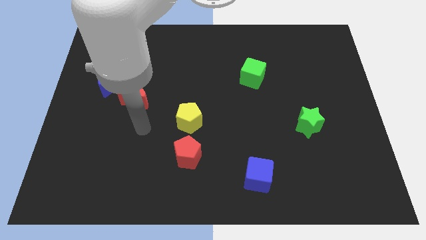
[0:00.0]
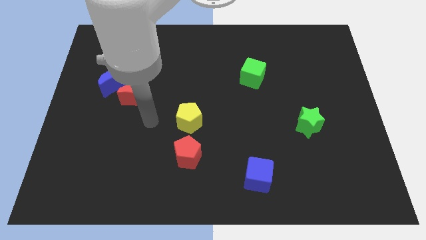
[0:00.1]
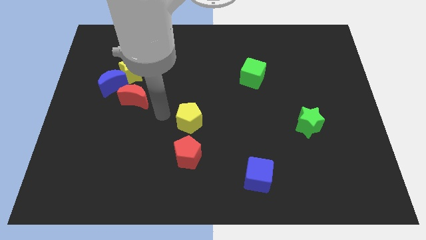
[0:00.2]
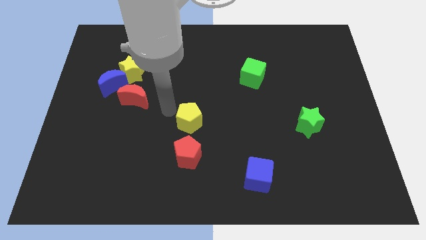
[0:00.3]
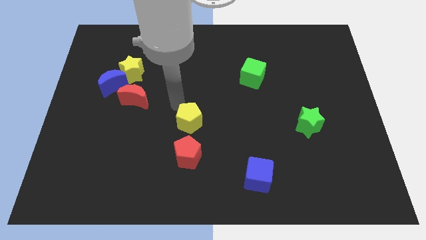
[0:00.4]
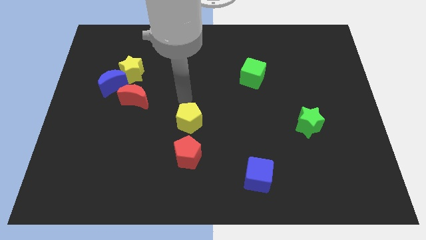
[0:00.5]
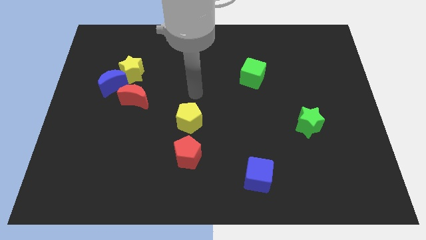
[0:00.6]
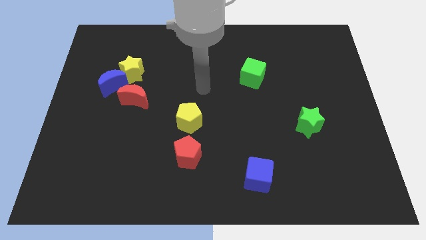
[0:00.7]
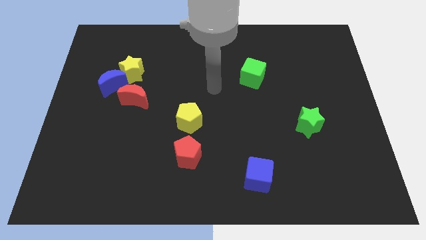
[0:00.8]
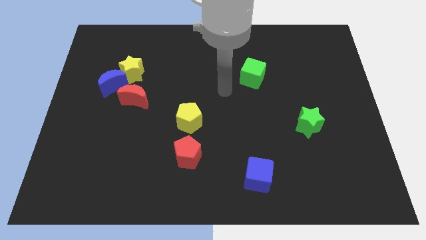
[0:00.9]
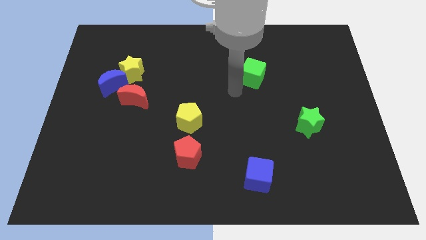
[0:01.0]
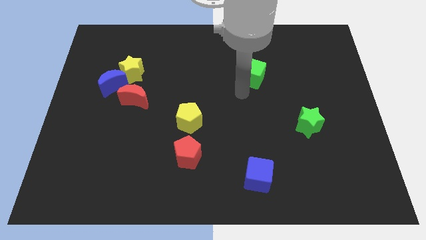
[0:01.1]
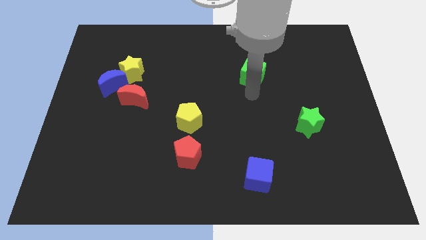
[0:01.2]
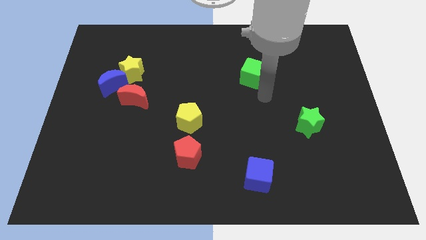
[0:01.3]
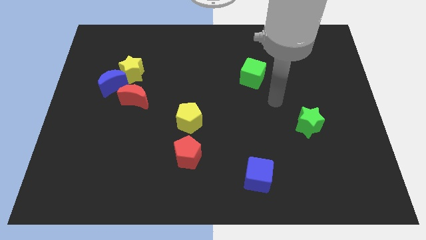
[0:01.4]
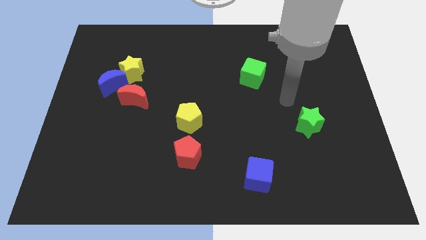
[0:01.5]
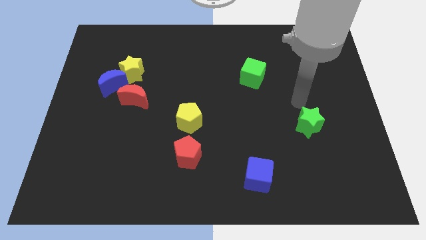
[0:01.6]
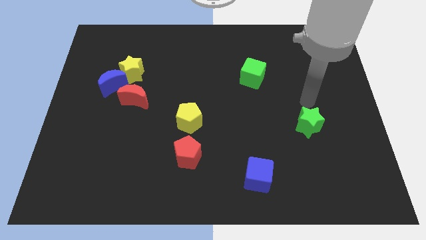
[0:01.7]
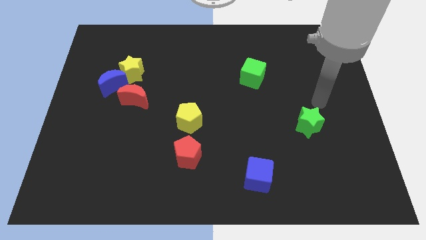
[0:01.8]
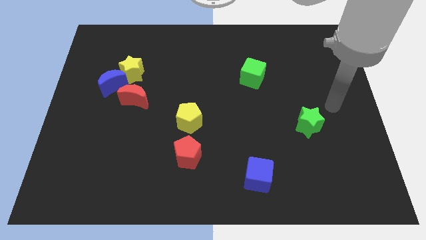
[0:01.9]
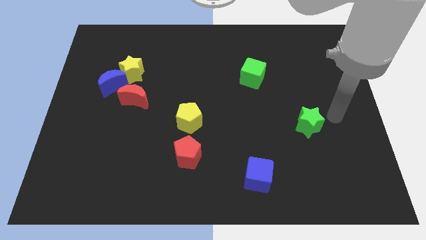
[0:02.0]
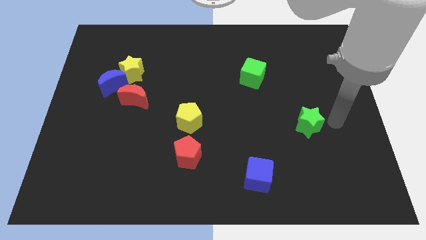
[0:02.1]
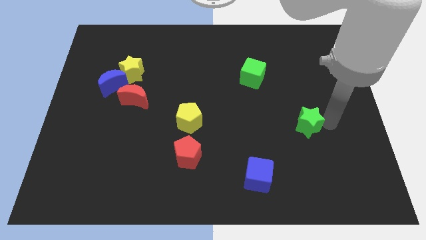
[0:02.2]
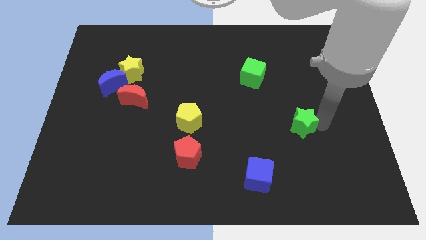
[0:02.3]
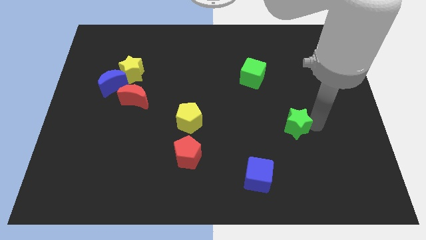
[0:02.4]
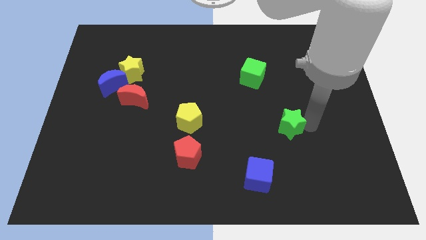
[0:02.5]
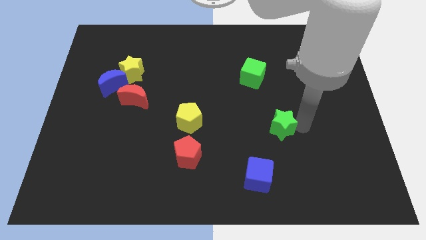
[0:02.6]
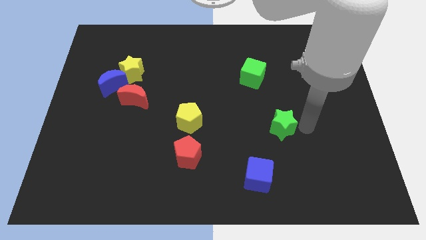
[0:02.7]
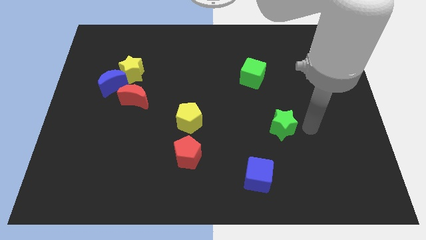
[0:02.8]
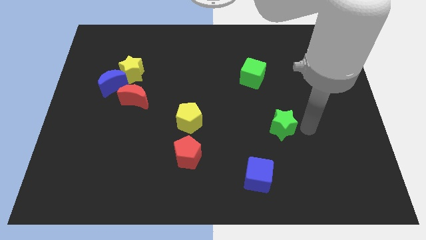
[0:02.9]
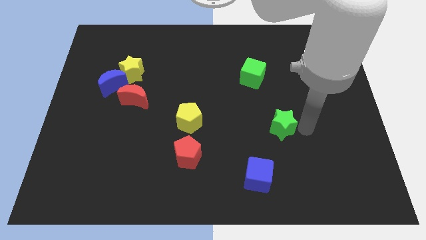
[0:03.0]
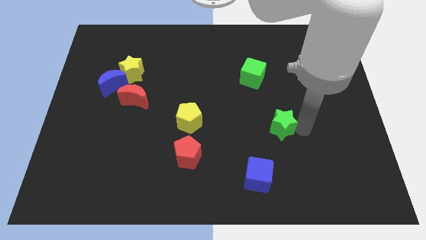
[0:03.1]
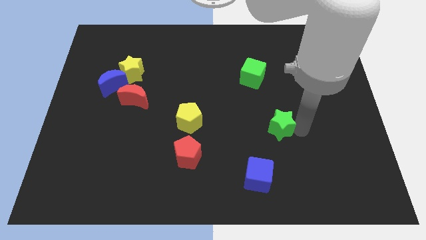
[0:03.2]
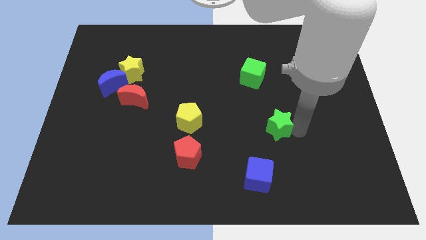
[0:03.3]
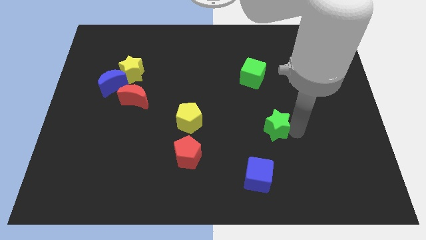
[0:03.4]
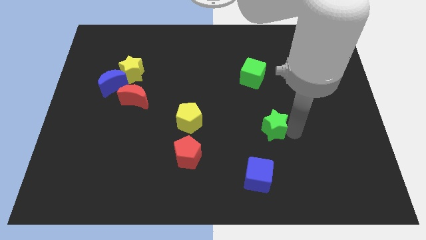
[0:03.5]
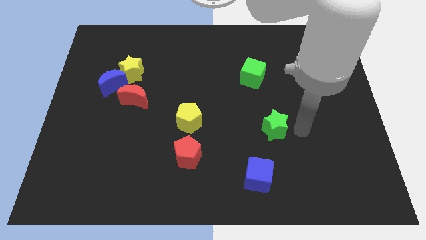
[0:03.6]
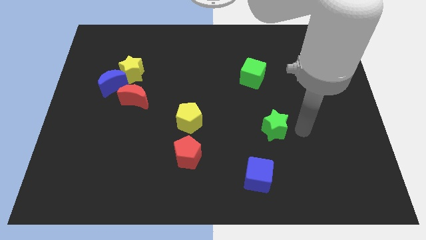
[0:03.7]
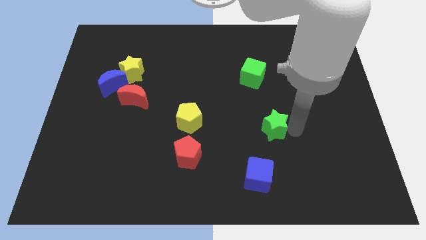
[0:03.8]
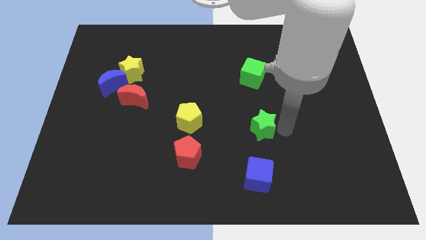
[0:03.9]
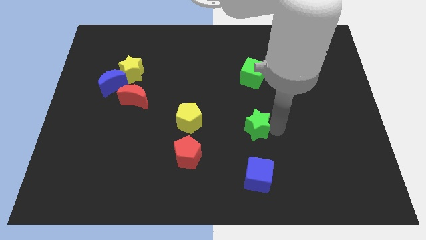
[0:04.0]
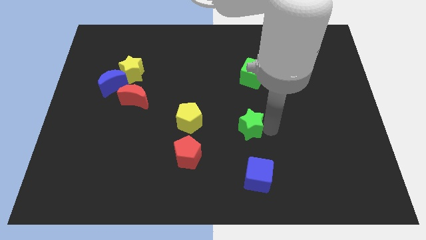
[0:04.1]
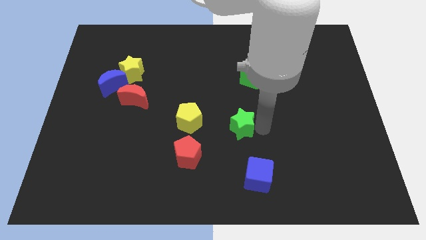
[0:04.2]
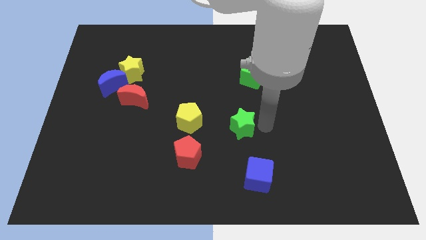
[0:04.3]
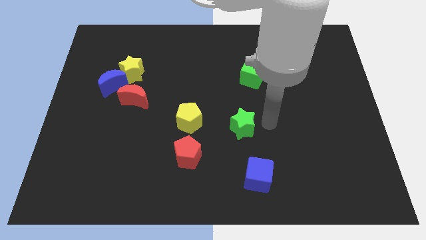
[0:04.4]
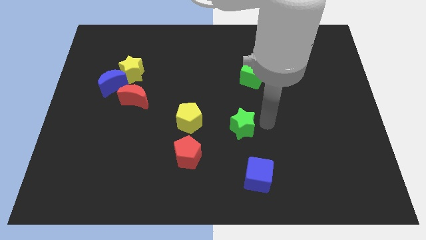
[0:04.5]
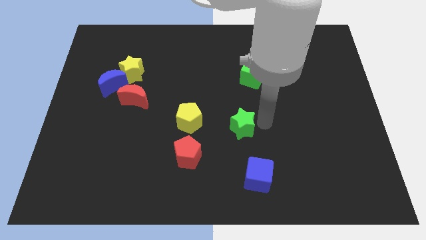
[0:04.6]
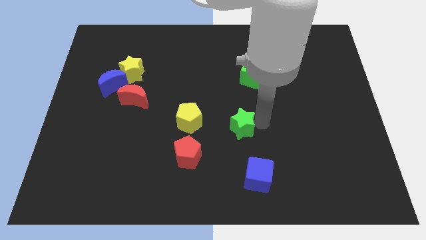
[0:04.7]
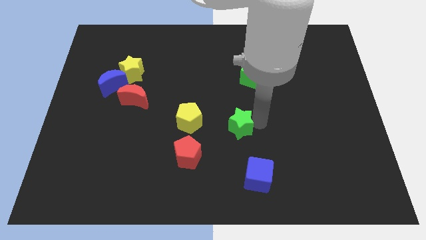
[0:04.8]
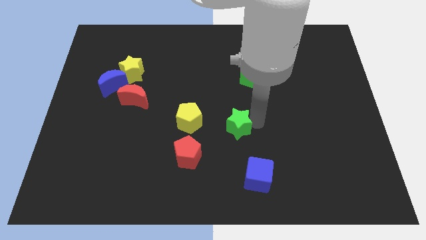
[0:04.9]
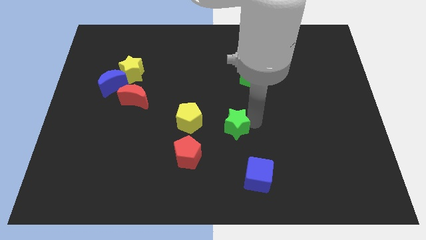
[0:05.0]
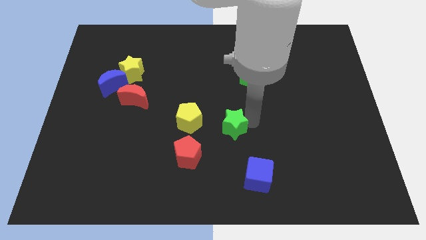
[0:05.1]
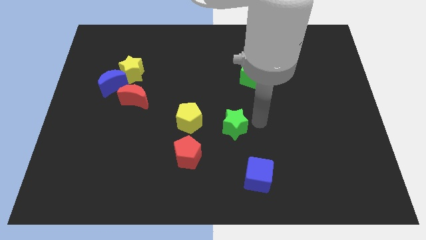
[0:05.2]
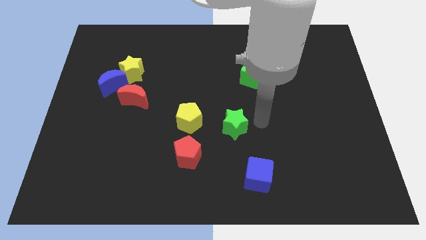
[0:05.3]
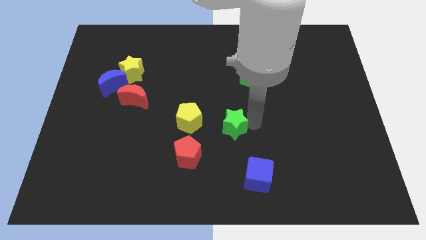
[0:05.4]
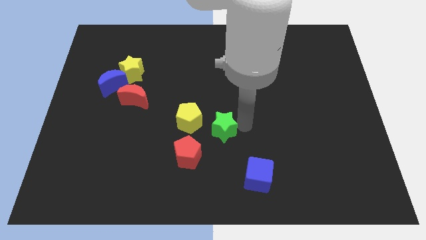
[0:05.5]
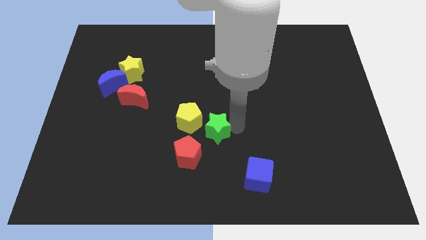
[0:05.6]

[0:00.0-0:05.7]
slide the green star to the left

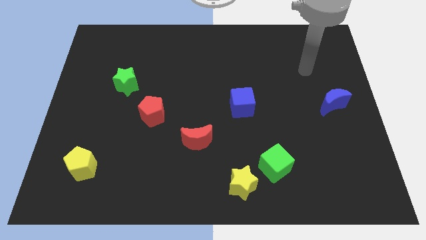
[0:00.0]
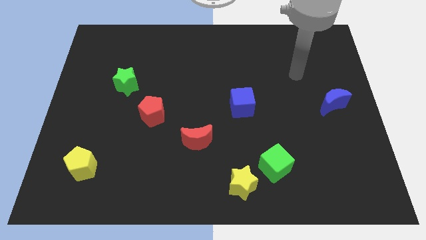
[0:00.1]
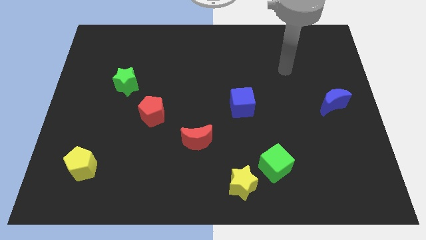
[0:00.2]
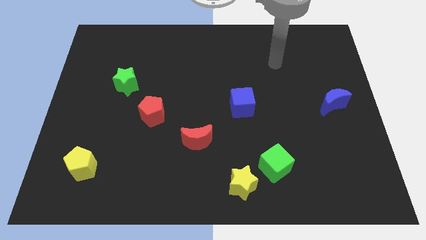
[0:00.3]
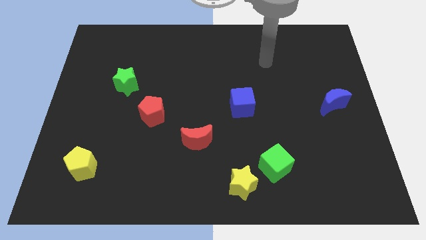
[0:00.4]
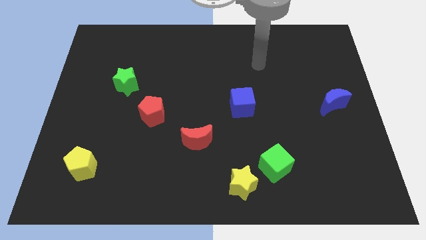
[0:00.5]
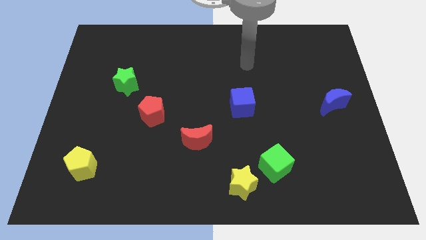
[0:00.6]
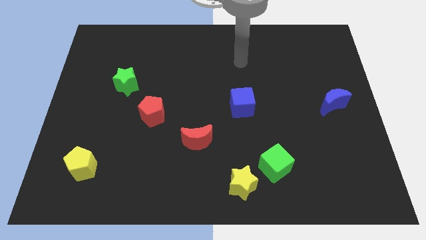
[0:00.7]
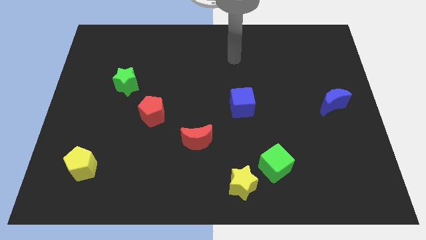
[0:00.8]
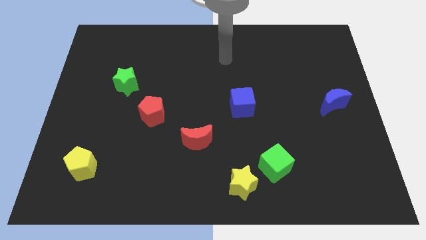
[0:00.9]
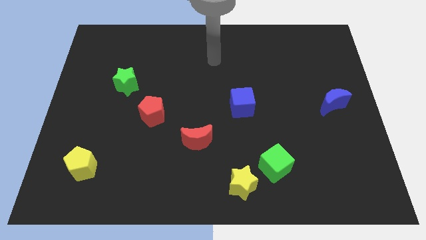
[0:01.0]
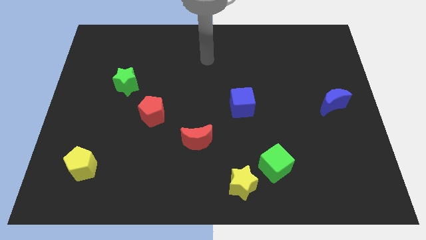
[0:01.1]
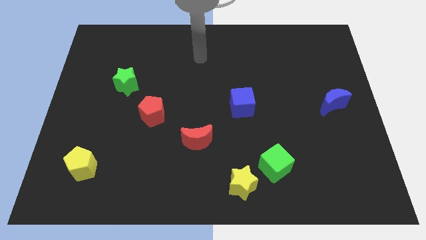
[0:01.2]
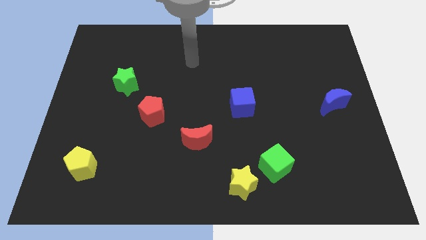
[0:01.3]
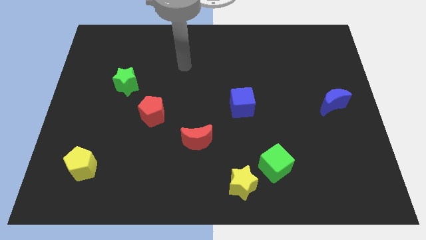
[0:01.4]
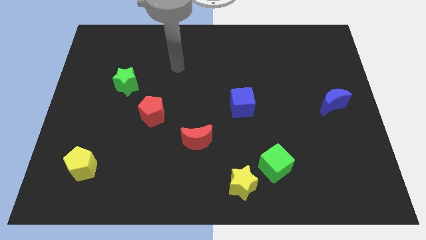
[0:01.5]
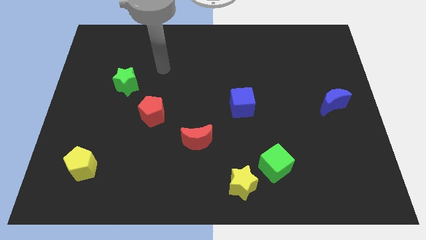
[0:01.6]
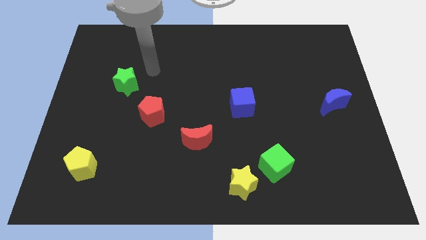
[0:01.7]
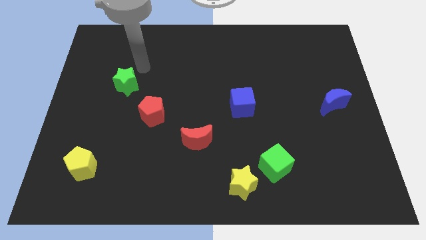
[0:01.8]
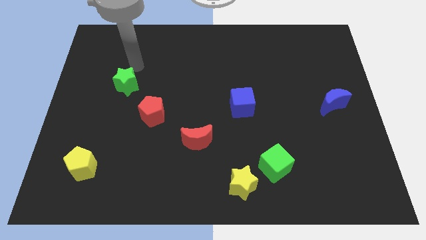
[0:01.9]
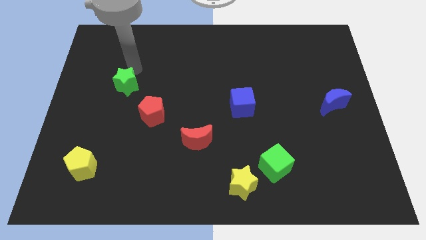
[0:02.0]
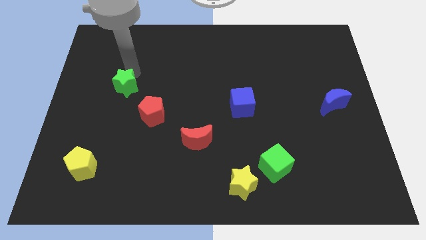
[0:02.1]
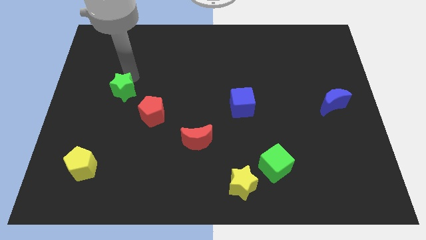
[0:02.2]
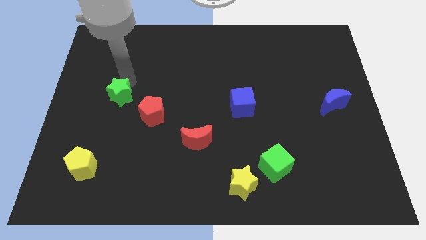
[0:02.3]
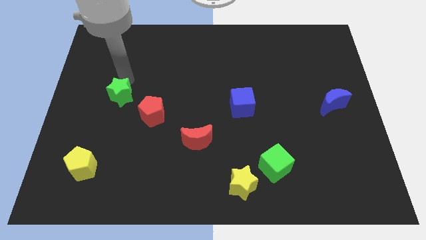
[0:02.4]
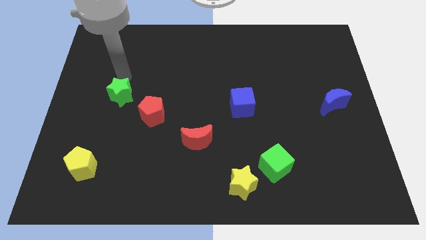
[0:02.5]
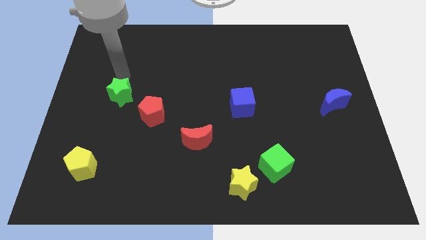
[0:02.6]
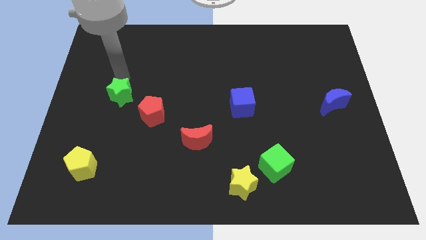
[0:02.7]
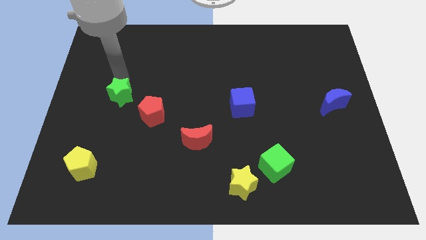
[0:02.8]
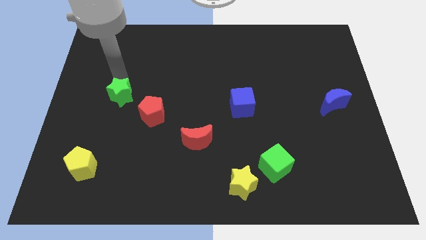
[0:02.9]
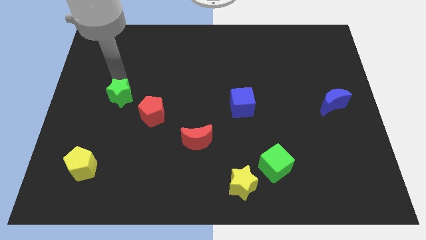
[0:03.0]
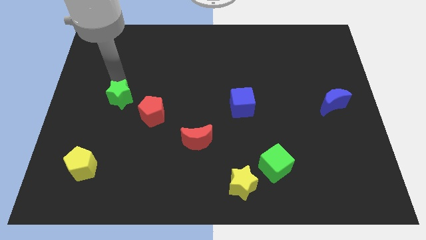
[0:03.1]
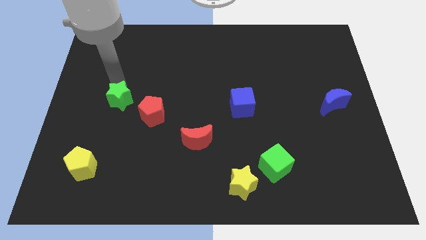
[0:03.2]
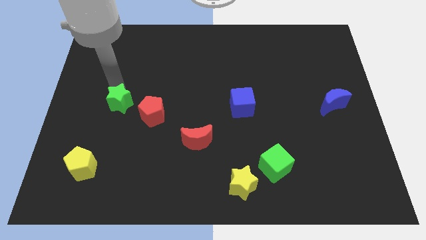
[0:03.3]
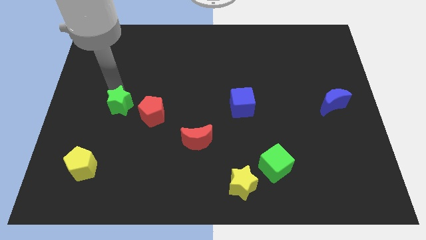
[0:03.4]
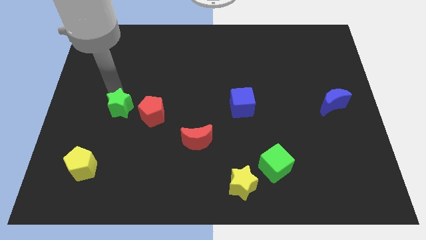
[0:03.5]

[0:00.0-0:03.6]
move the green star downwards a little bit
